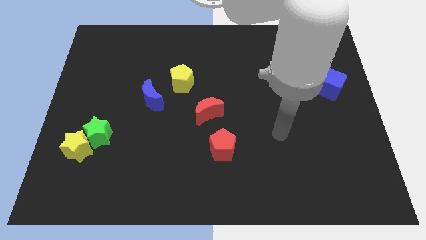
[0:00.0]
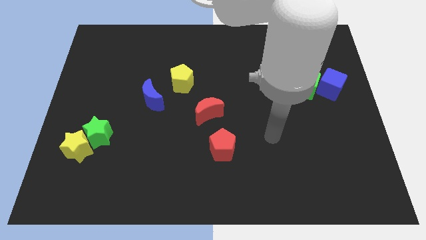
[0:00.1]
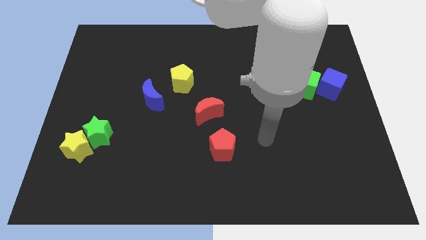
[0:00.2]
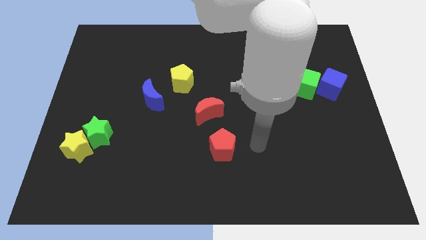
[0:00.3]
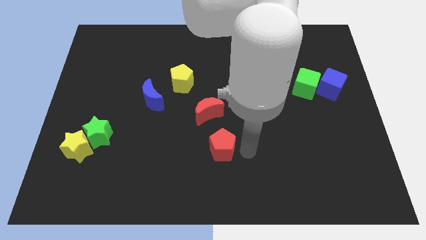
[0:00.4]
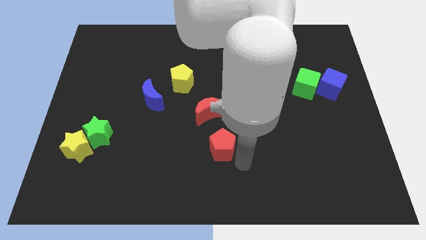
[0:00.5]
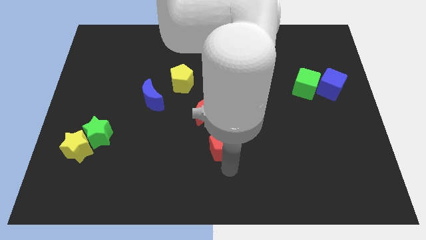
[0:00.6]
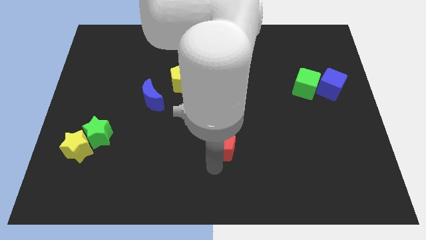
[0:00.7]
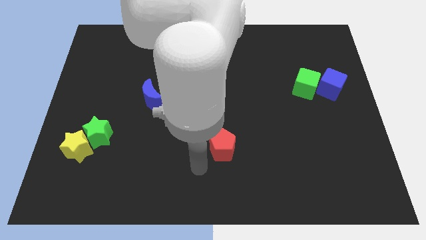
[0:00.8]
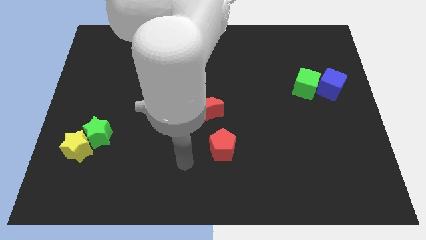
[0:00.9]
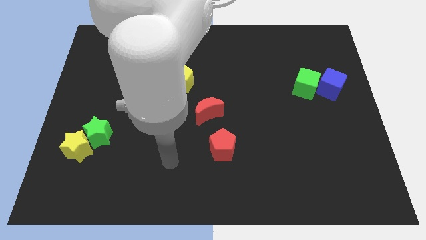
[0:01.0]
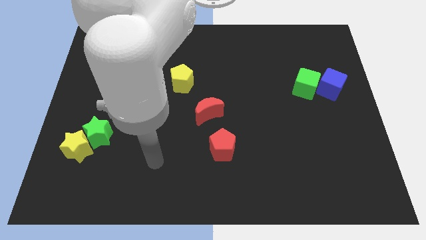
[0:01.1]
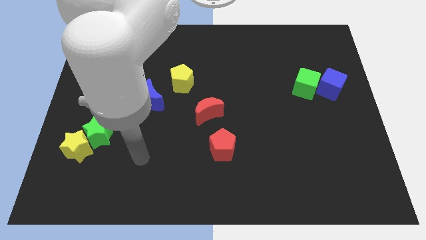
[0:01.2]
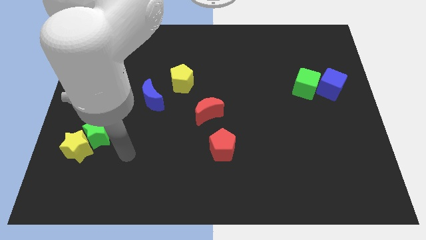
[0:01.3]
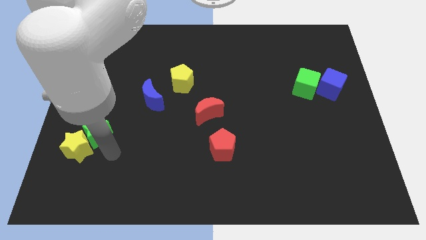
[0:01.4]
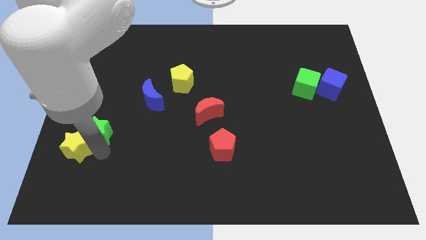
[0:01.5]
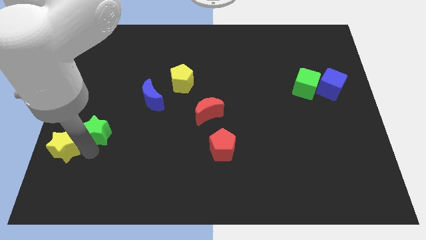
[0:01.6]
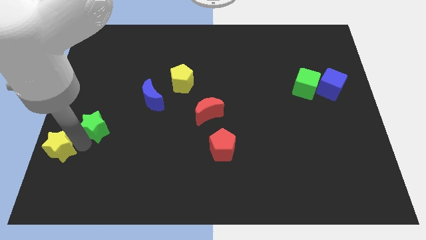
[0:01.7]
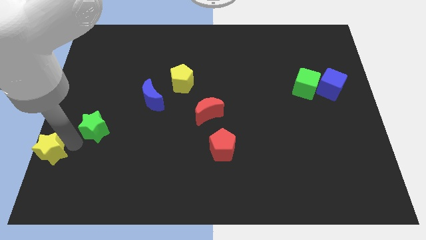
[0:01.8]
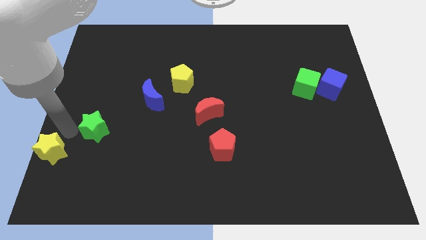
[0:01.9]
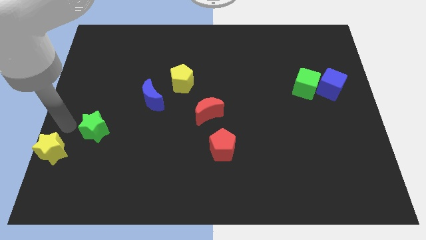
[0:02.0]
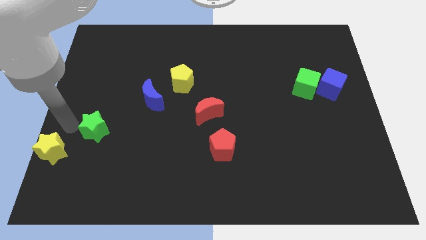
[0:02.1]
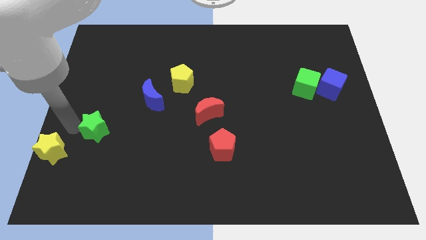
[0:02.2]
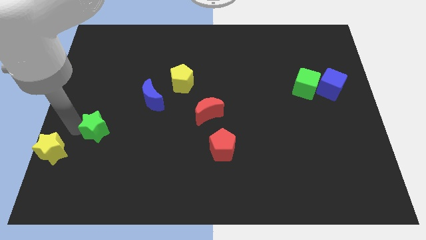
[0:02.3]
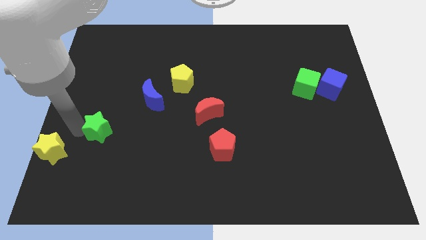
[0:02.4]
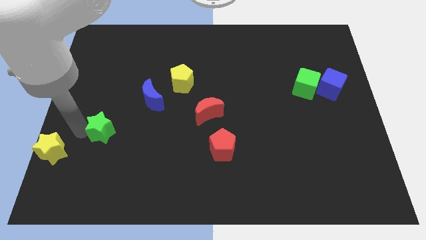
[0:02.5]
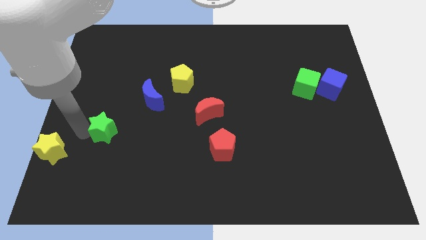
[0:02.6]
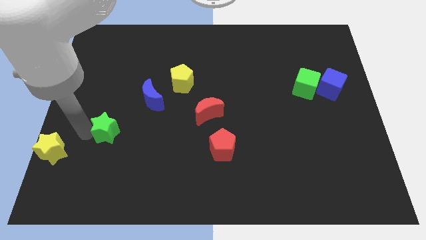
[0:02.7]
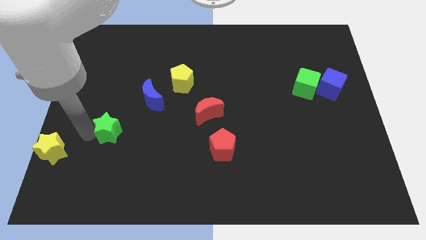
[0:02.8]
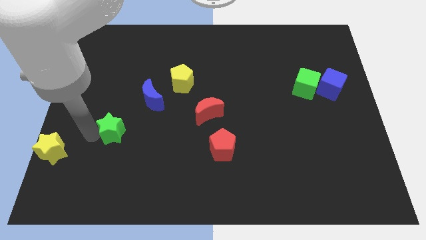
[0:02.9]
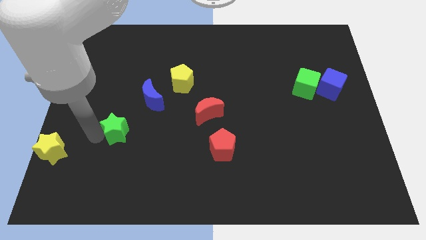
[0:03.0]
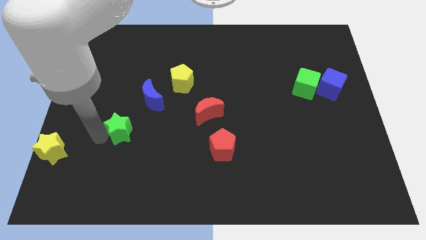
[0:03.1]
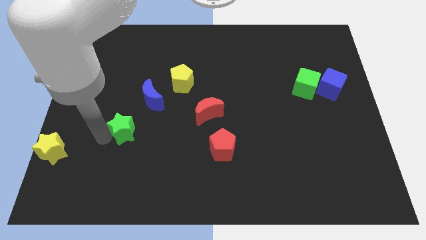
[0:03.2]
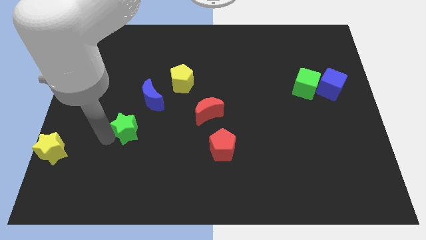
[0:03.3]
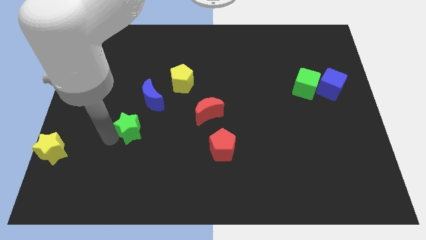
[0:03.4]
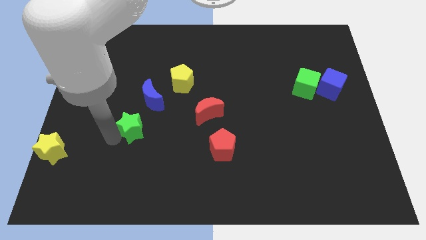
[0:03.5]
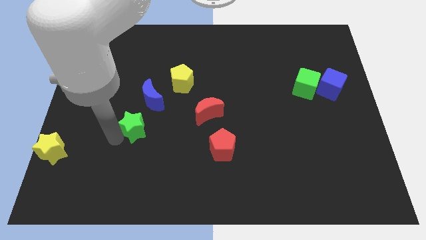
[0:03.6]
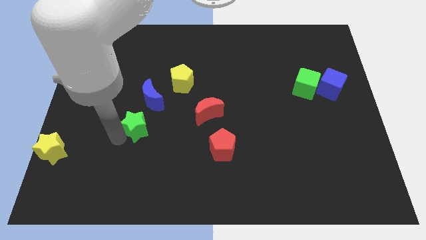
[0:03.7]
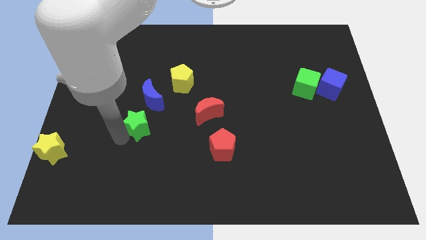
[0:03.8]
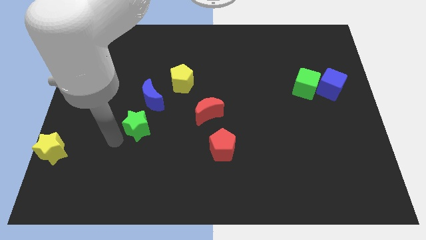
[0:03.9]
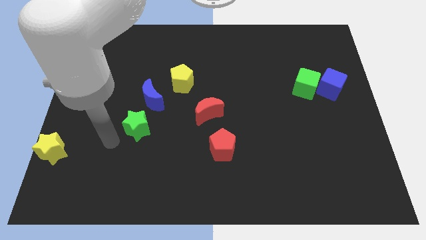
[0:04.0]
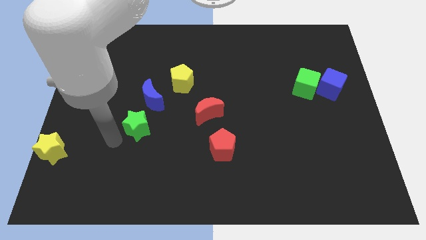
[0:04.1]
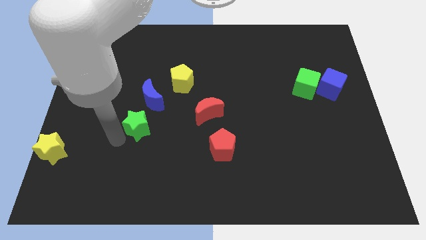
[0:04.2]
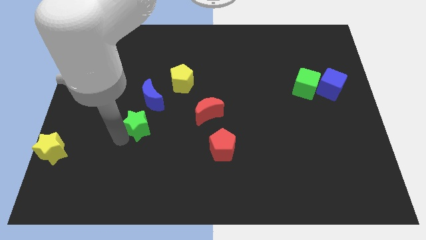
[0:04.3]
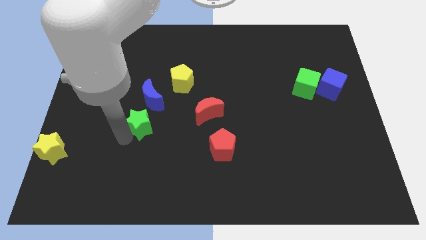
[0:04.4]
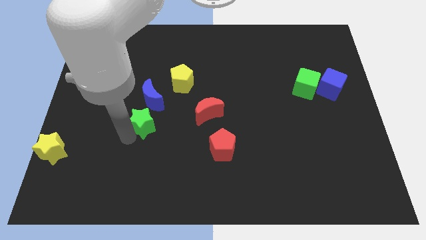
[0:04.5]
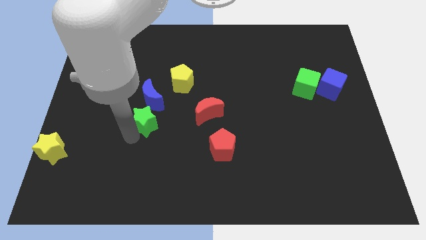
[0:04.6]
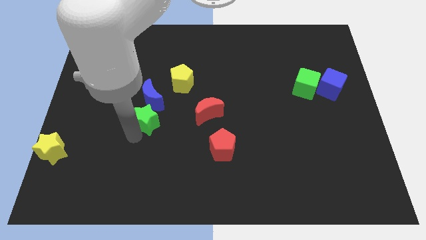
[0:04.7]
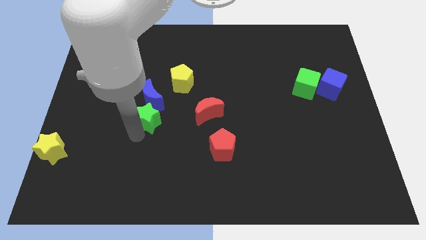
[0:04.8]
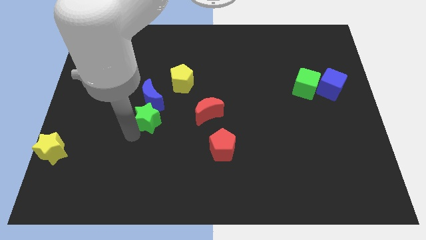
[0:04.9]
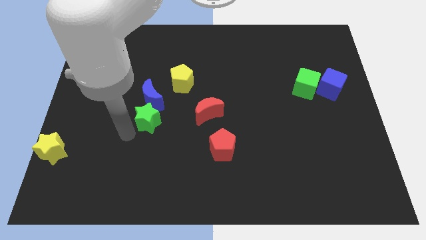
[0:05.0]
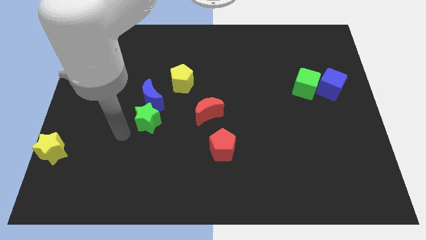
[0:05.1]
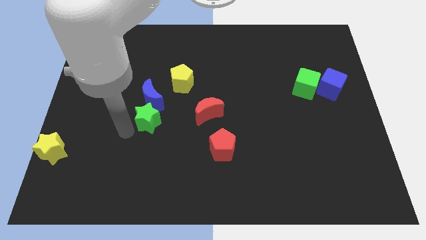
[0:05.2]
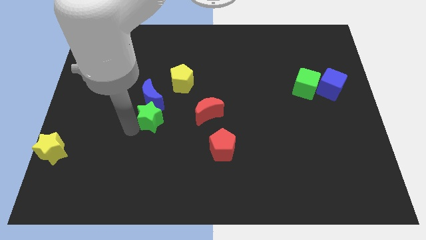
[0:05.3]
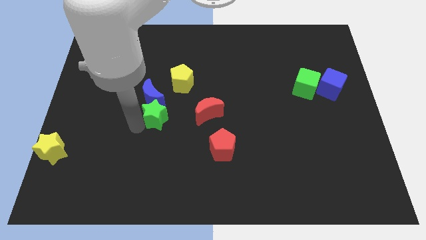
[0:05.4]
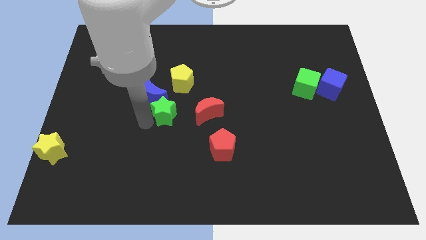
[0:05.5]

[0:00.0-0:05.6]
put the green star to the center

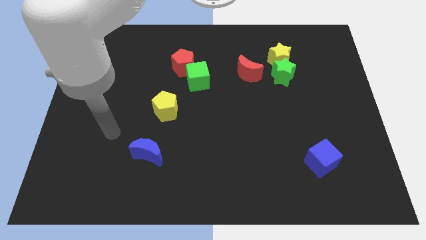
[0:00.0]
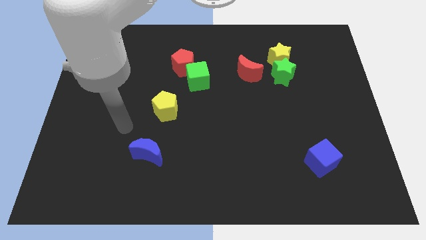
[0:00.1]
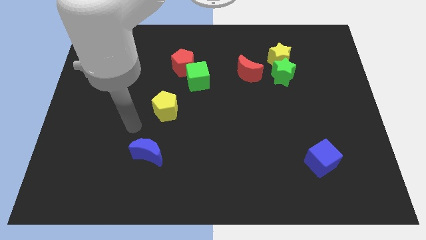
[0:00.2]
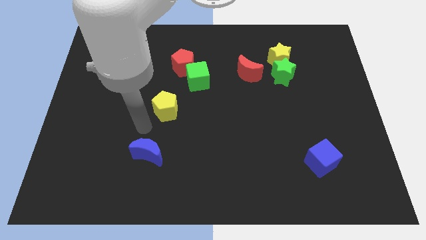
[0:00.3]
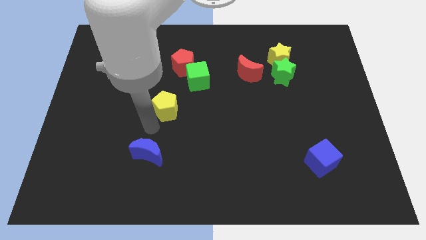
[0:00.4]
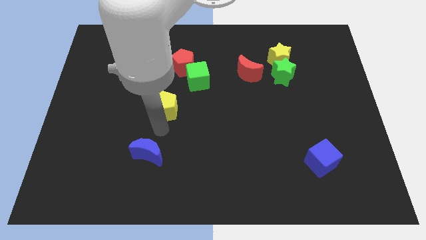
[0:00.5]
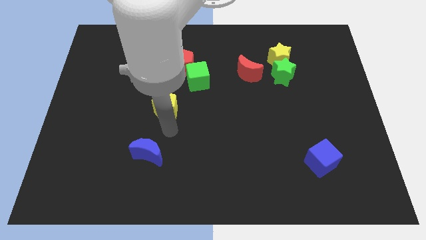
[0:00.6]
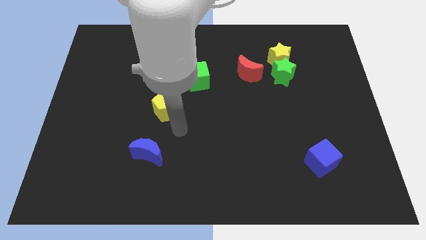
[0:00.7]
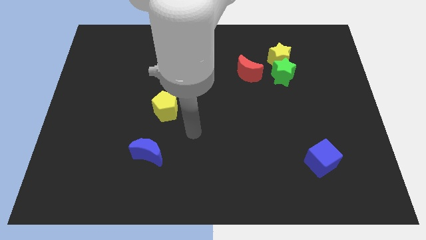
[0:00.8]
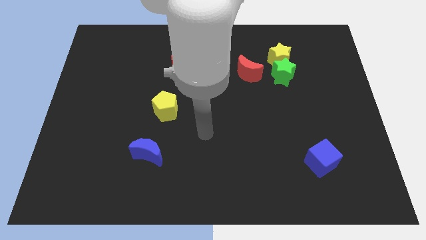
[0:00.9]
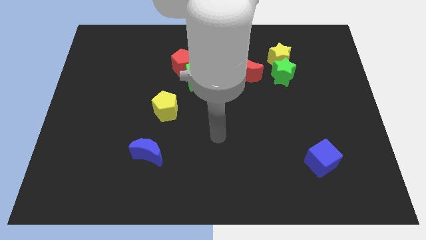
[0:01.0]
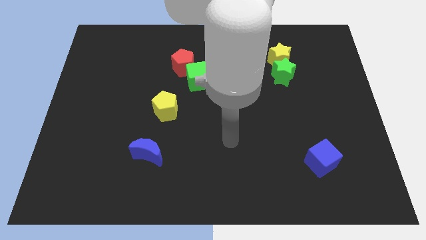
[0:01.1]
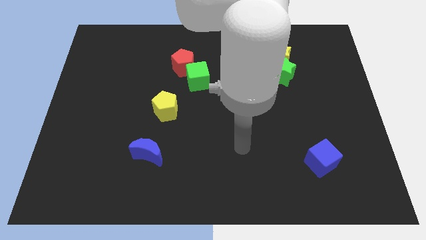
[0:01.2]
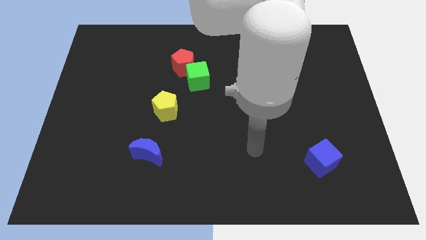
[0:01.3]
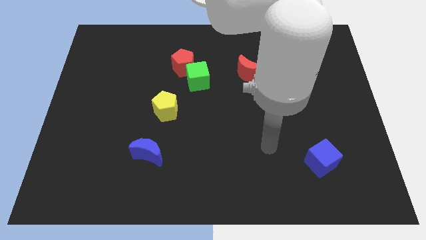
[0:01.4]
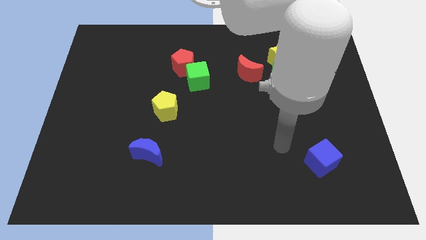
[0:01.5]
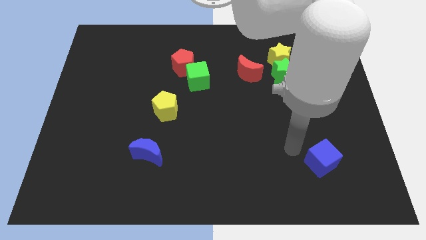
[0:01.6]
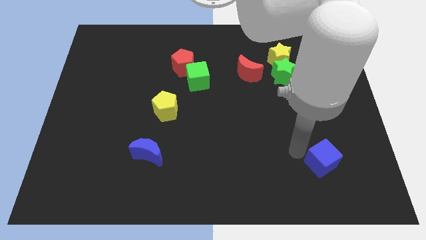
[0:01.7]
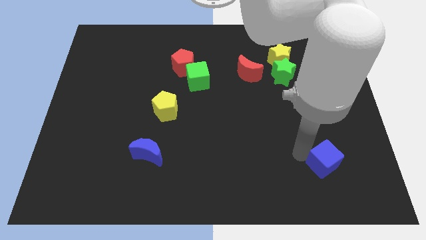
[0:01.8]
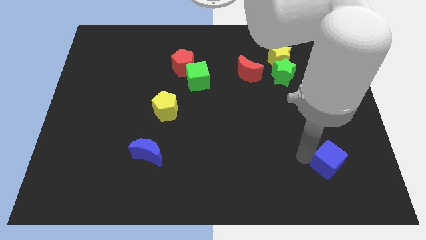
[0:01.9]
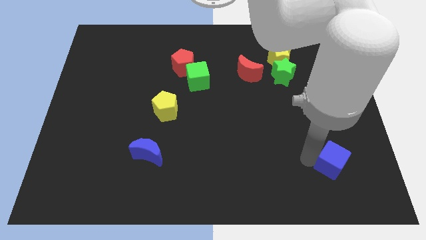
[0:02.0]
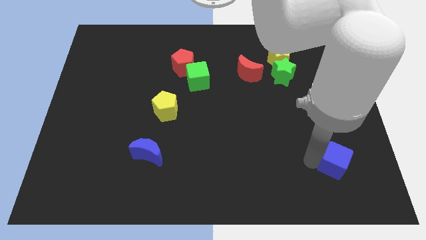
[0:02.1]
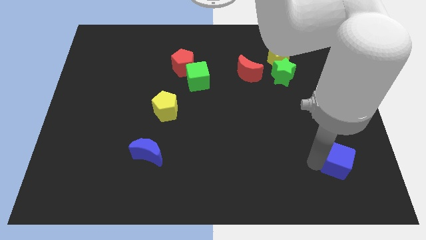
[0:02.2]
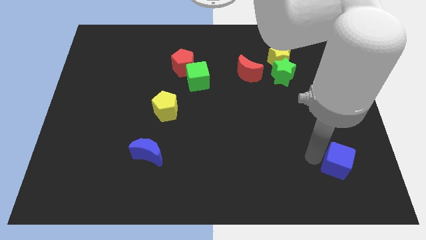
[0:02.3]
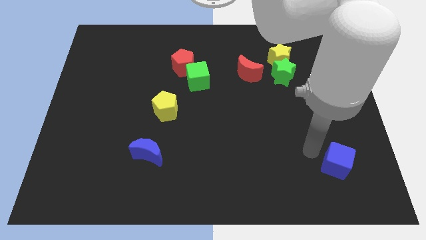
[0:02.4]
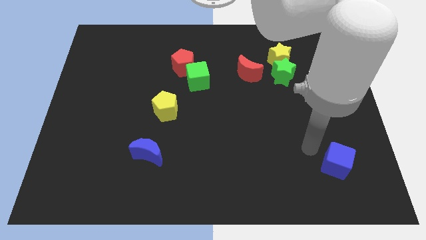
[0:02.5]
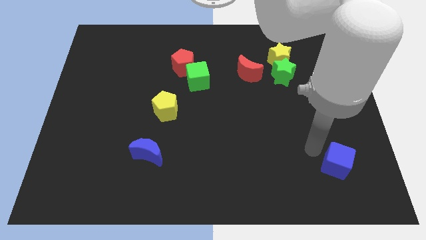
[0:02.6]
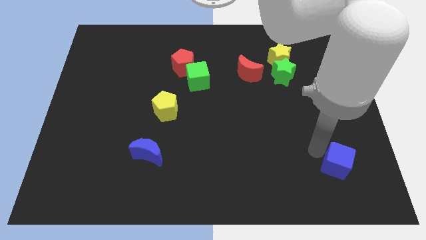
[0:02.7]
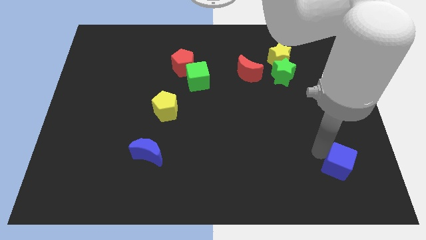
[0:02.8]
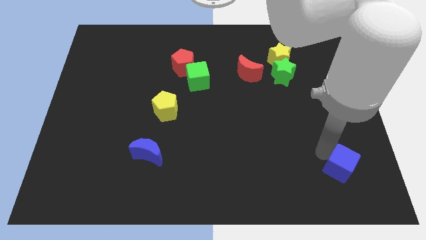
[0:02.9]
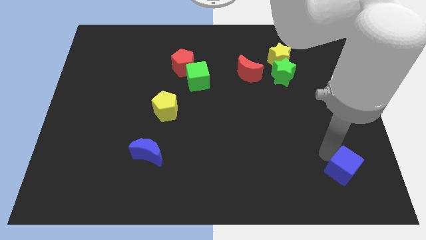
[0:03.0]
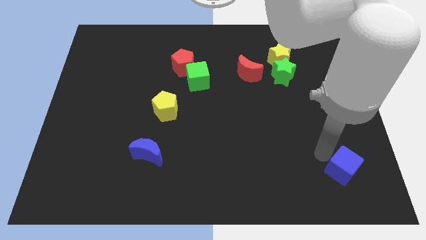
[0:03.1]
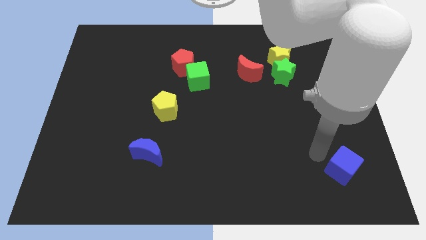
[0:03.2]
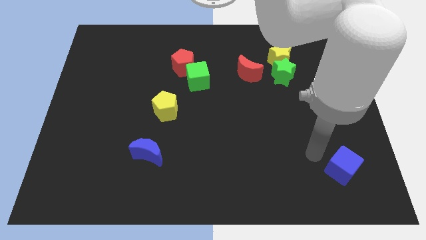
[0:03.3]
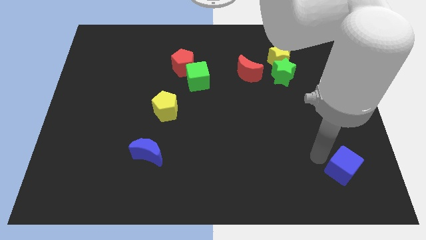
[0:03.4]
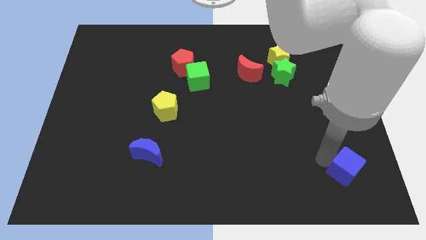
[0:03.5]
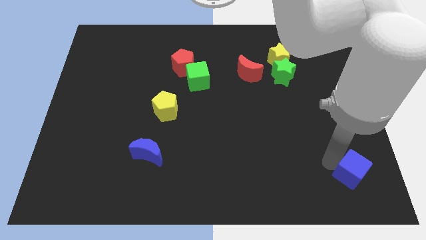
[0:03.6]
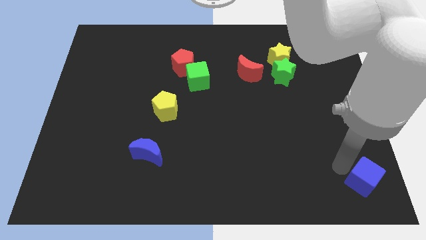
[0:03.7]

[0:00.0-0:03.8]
put the blue cube to the bottom right corner
